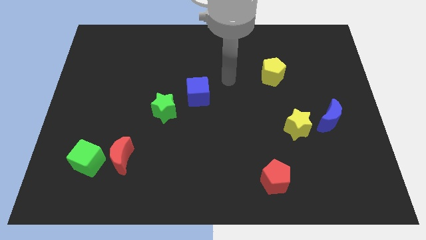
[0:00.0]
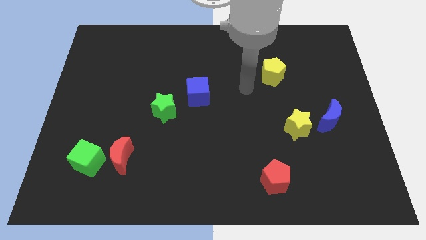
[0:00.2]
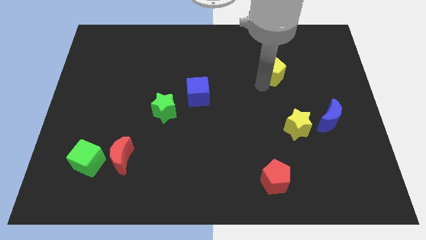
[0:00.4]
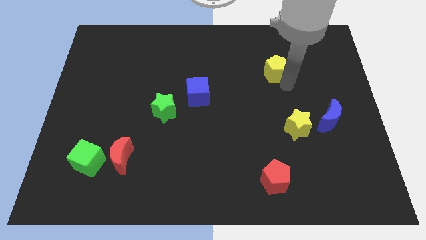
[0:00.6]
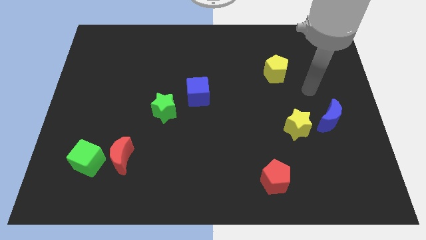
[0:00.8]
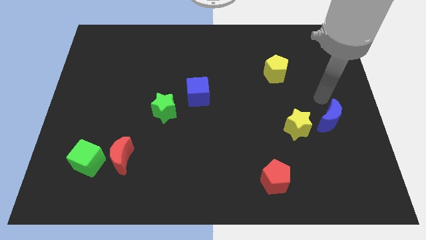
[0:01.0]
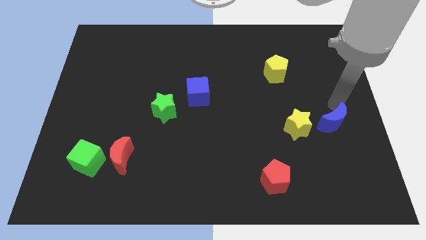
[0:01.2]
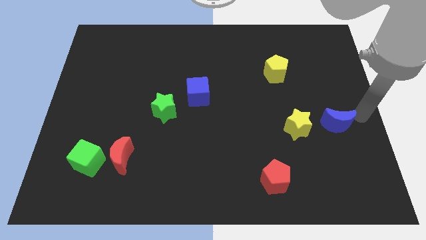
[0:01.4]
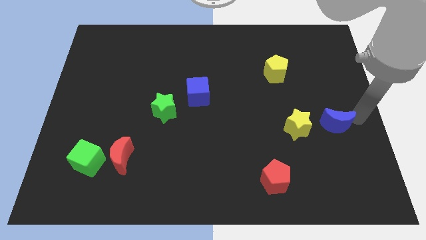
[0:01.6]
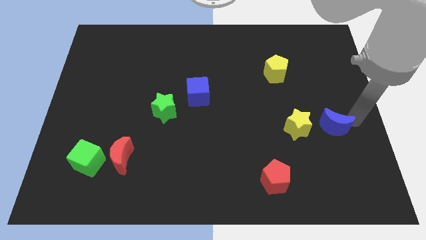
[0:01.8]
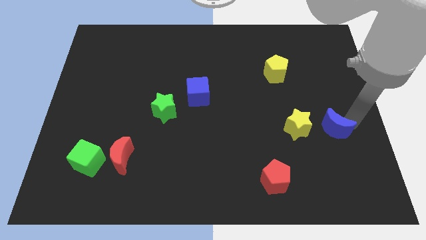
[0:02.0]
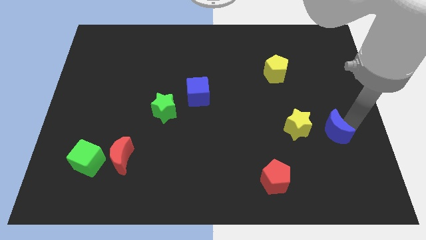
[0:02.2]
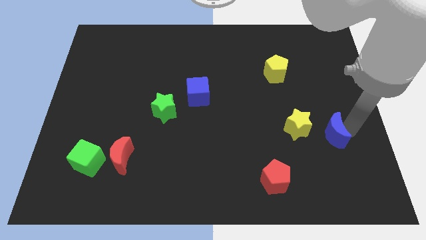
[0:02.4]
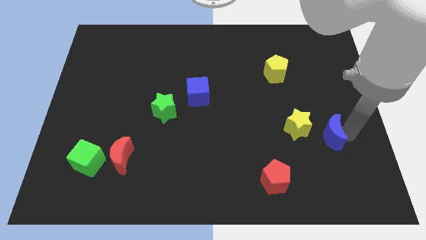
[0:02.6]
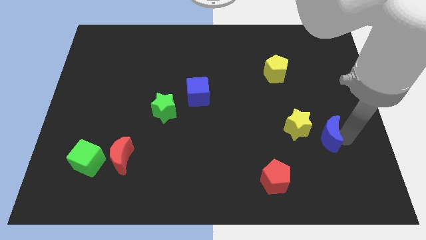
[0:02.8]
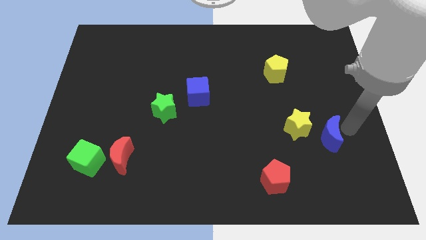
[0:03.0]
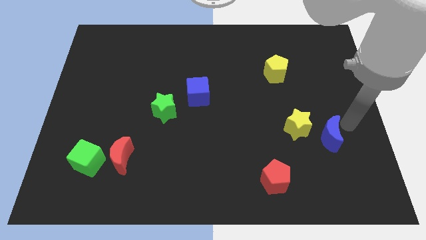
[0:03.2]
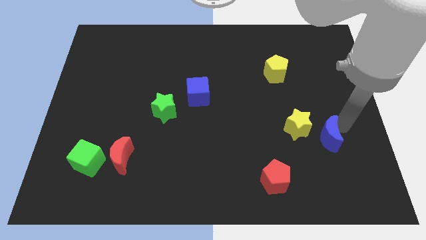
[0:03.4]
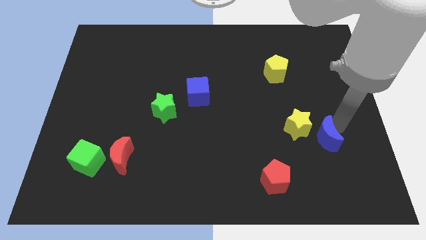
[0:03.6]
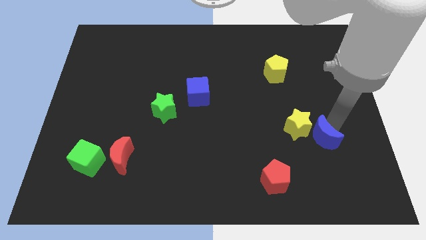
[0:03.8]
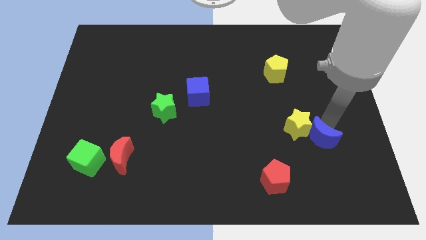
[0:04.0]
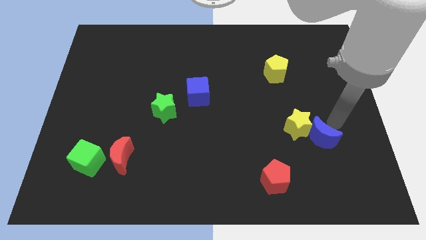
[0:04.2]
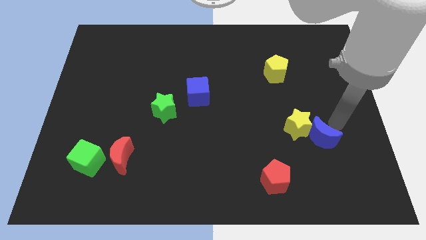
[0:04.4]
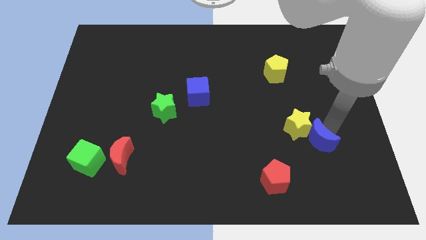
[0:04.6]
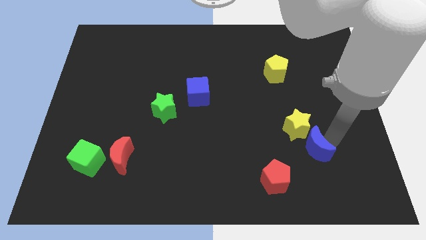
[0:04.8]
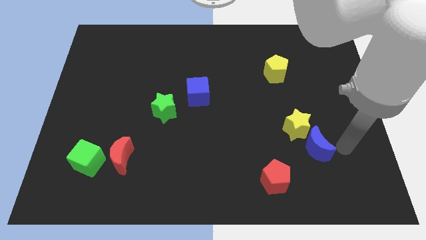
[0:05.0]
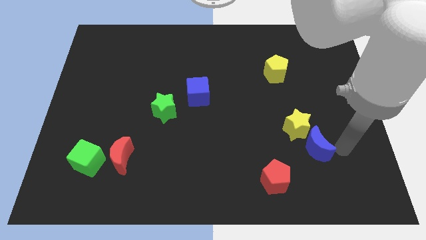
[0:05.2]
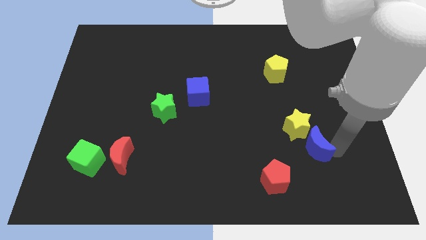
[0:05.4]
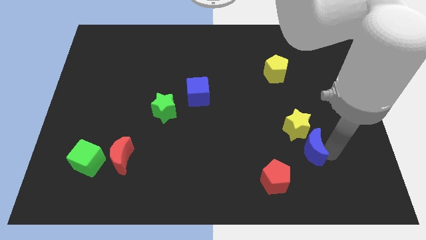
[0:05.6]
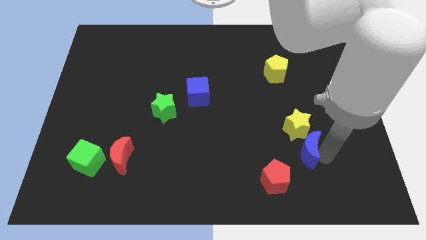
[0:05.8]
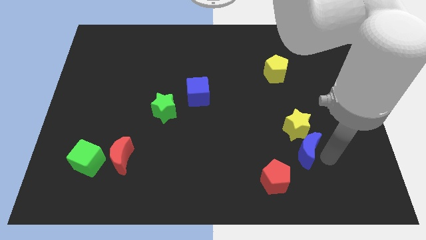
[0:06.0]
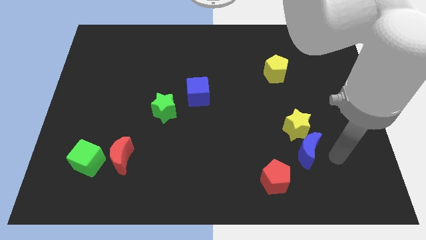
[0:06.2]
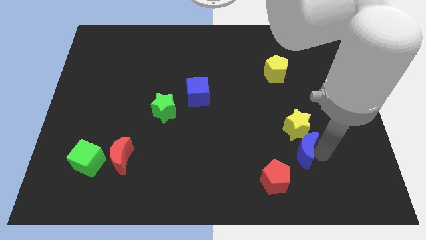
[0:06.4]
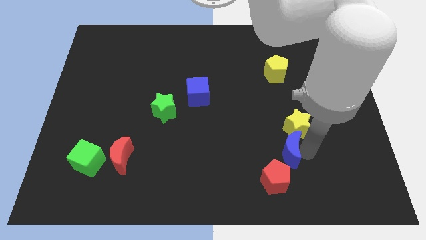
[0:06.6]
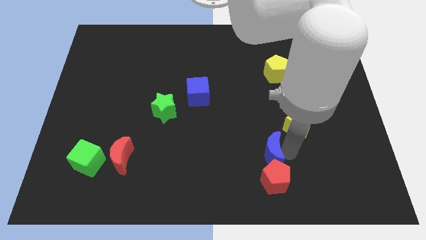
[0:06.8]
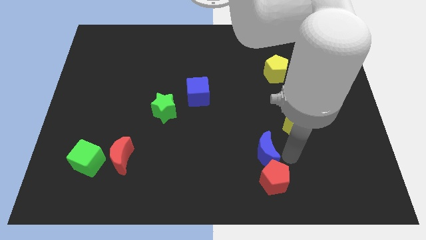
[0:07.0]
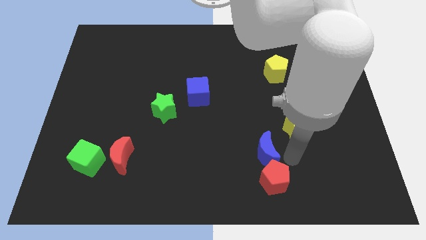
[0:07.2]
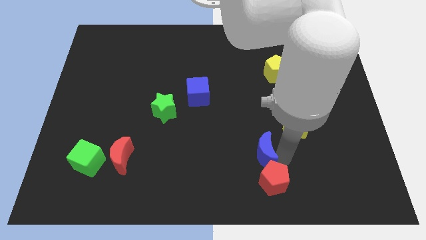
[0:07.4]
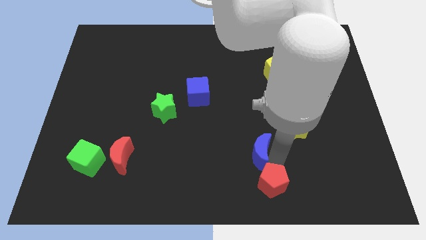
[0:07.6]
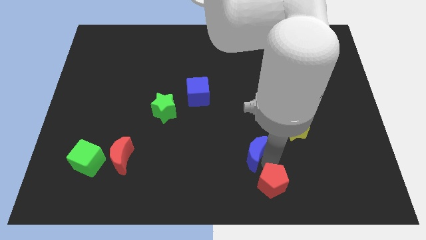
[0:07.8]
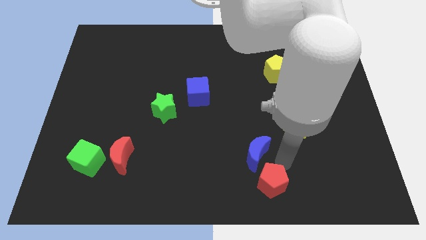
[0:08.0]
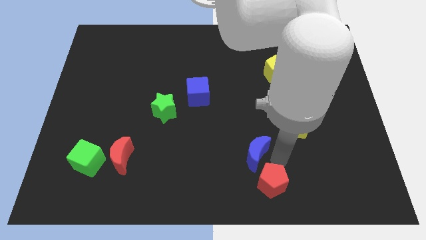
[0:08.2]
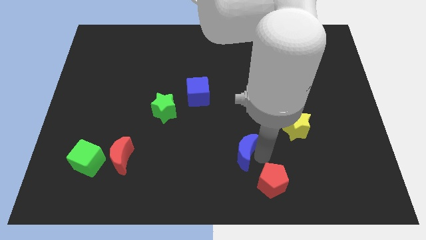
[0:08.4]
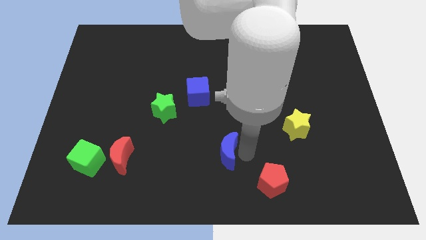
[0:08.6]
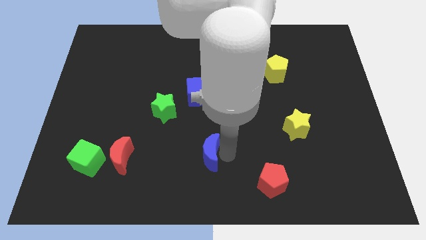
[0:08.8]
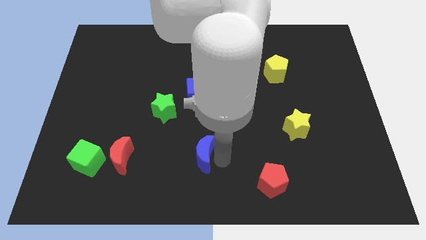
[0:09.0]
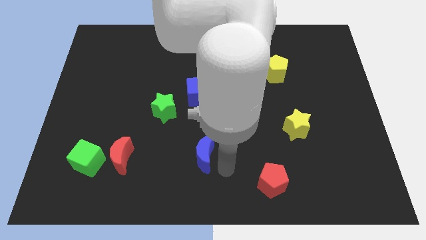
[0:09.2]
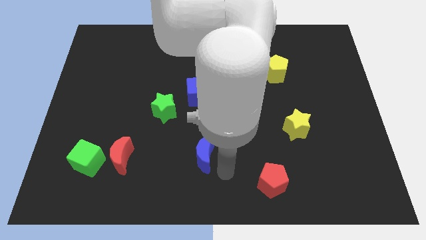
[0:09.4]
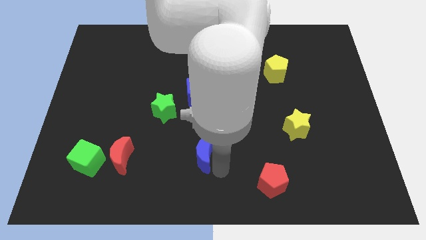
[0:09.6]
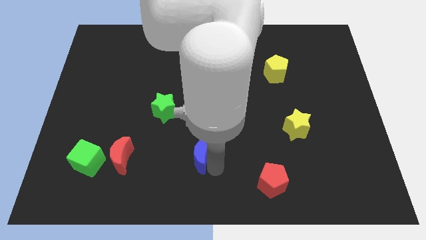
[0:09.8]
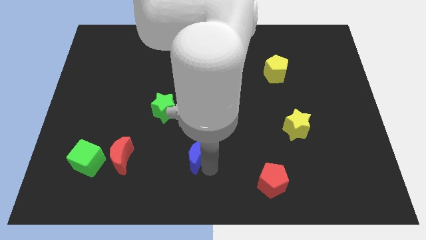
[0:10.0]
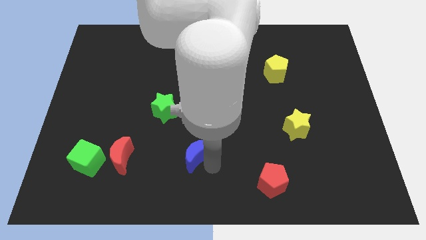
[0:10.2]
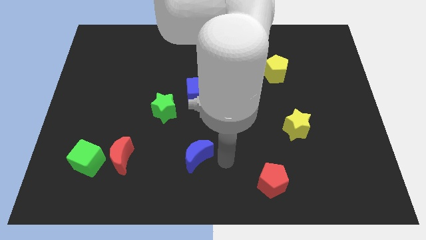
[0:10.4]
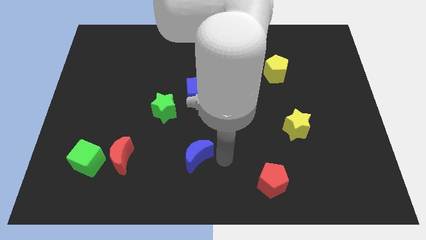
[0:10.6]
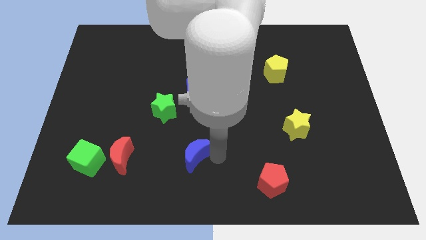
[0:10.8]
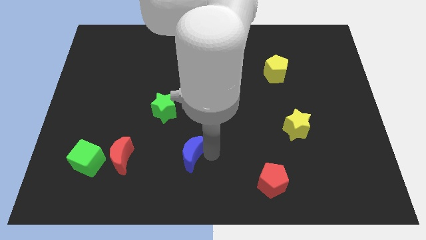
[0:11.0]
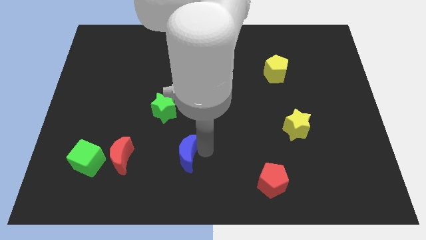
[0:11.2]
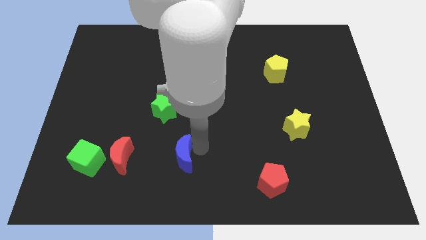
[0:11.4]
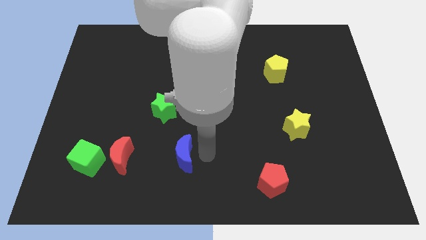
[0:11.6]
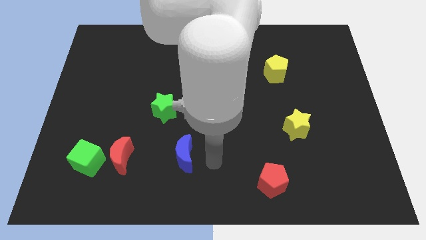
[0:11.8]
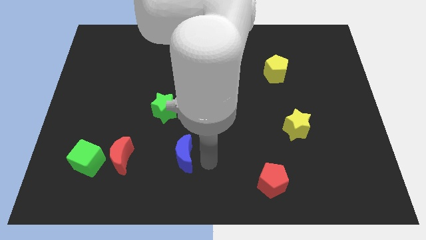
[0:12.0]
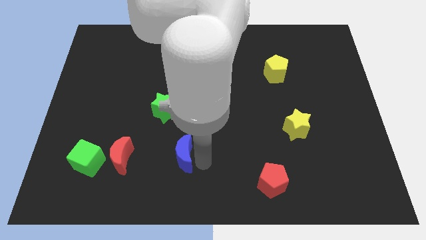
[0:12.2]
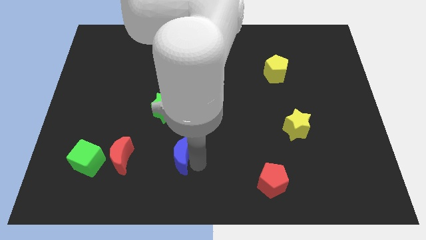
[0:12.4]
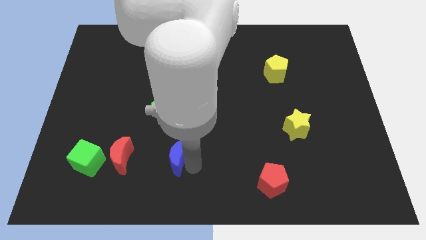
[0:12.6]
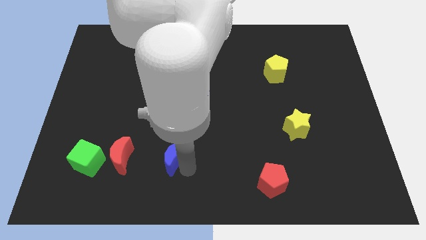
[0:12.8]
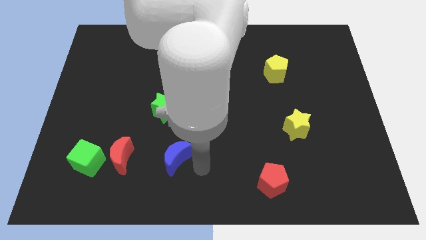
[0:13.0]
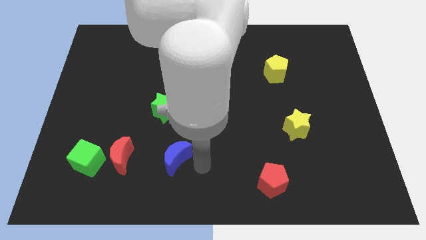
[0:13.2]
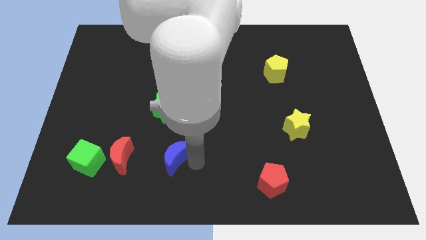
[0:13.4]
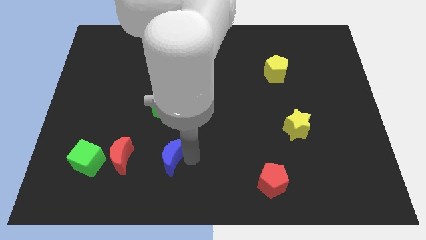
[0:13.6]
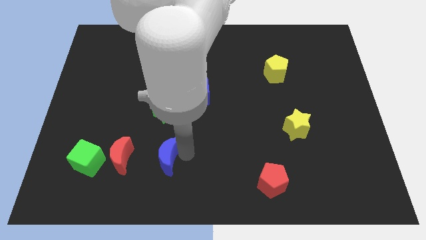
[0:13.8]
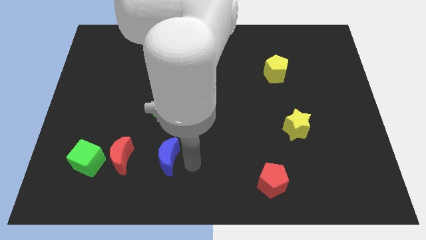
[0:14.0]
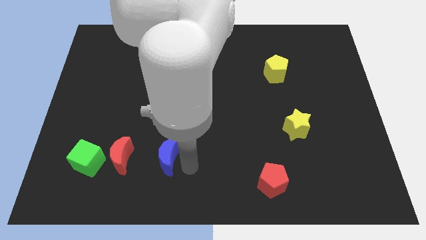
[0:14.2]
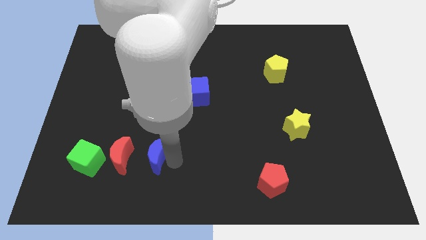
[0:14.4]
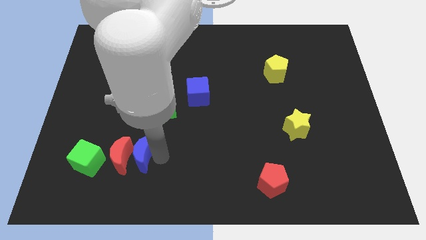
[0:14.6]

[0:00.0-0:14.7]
slide the blue moon towards the red moon
